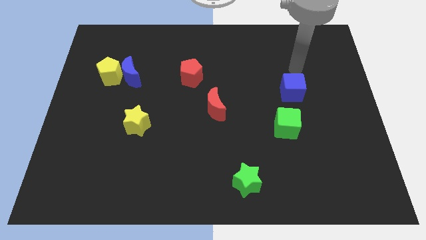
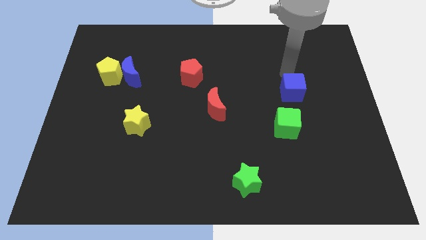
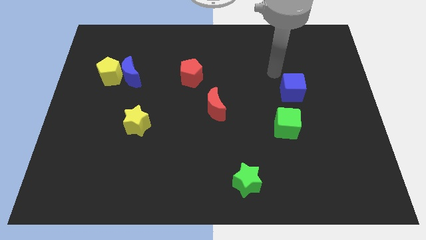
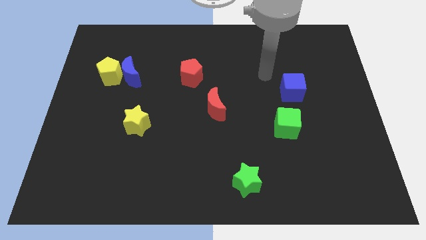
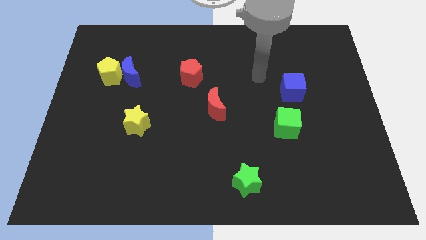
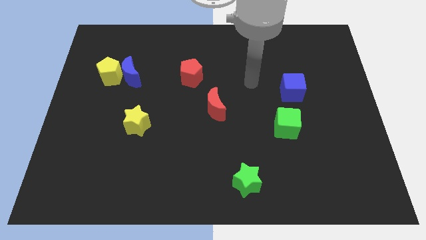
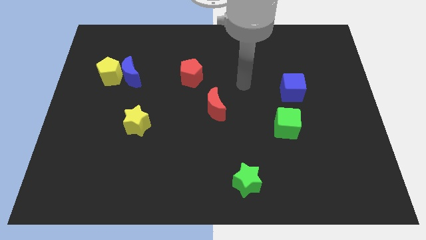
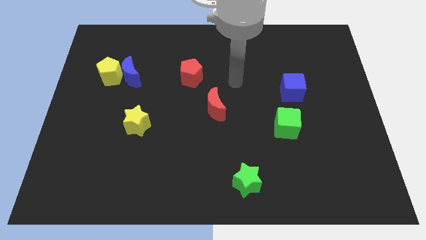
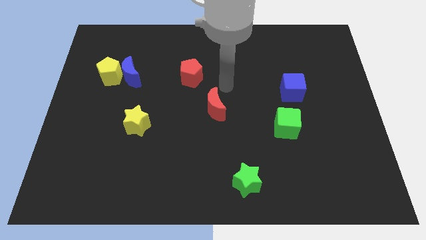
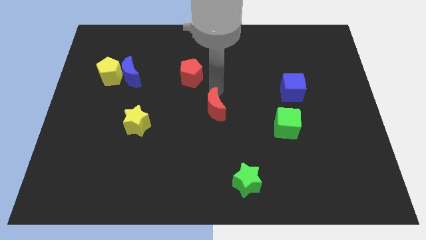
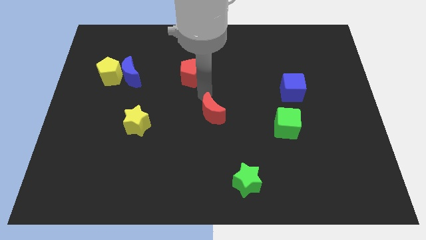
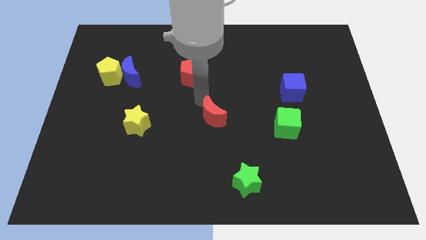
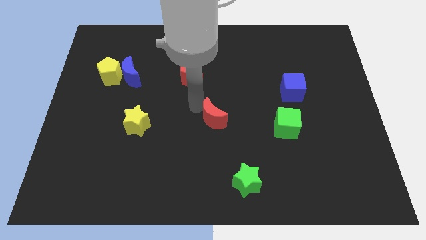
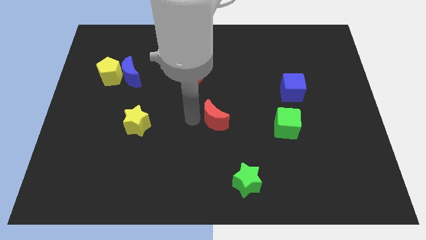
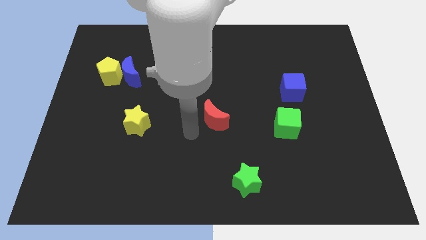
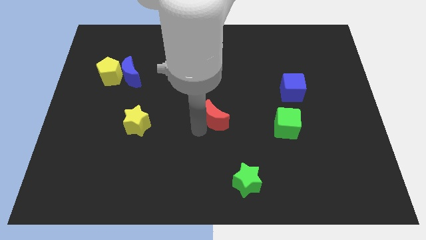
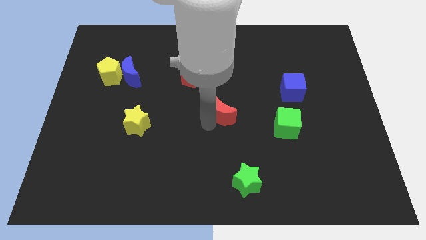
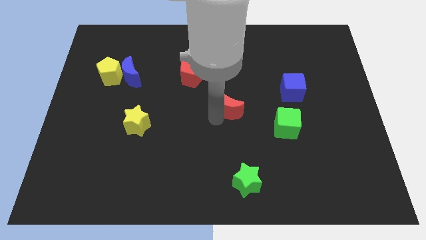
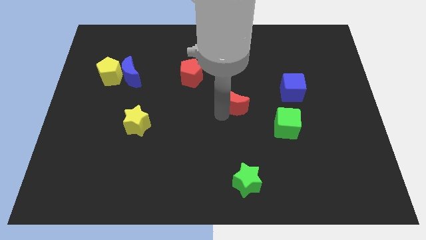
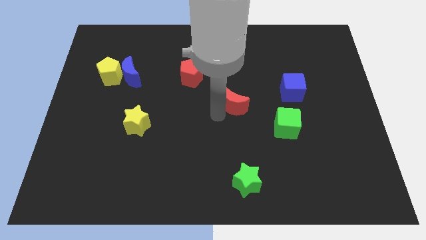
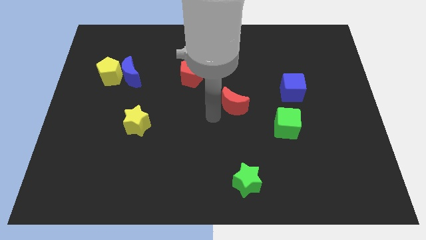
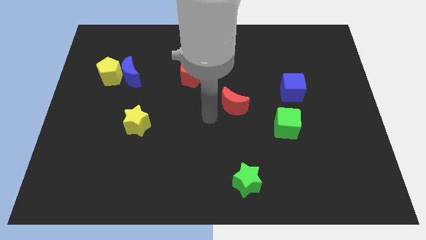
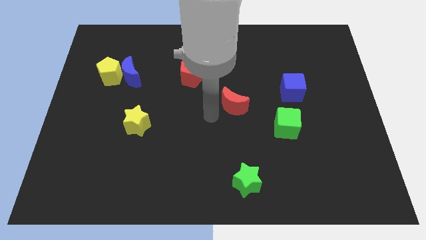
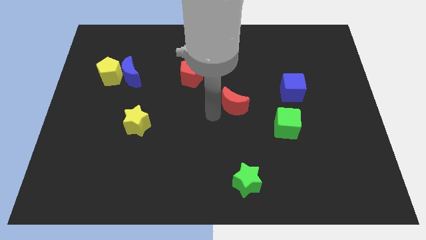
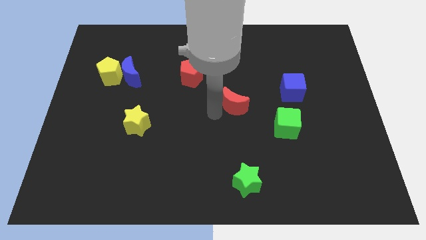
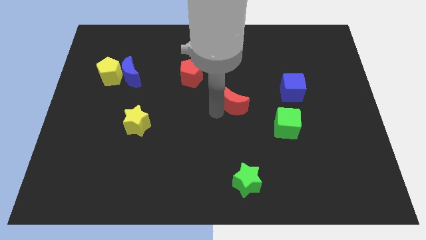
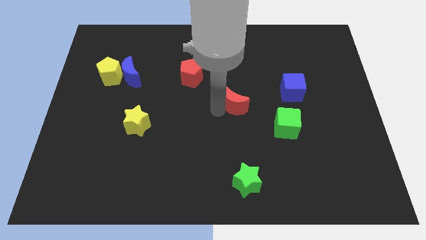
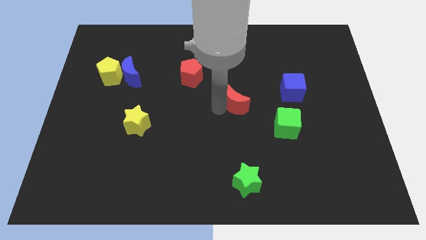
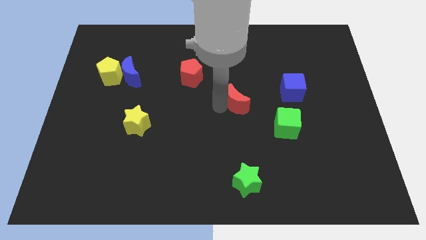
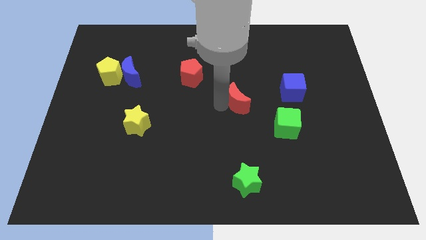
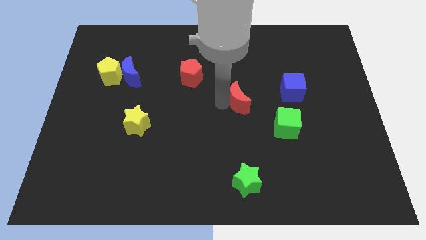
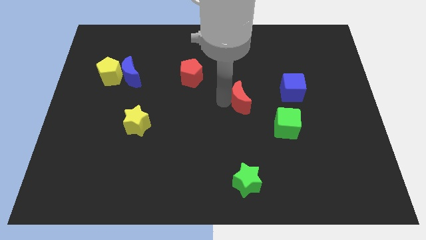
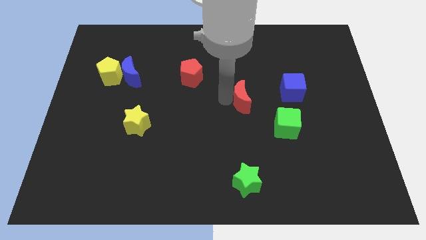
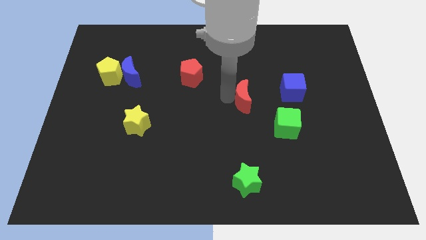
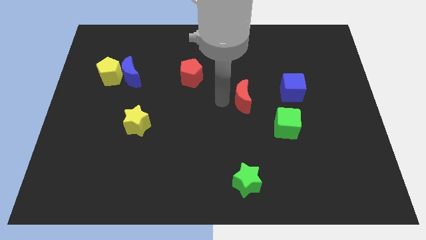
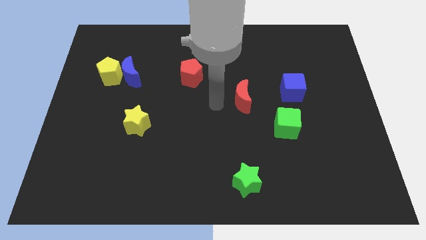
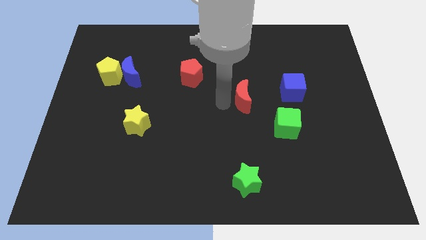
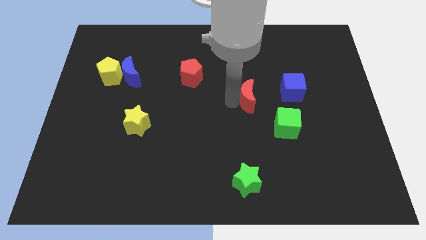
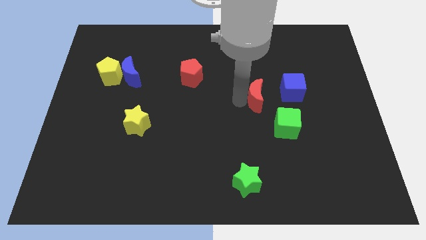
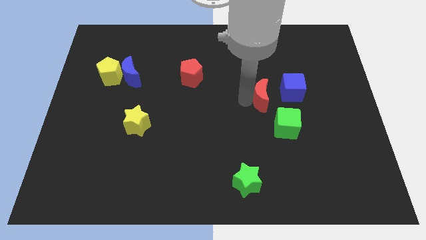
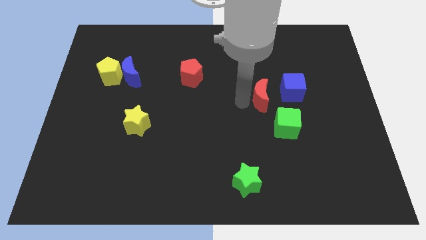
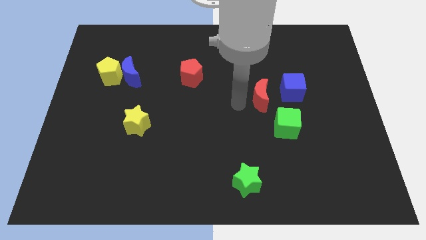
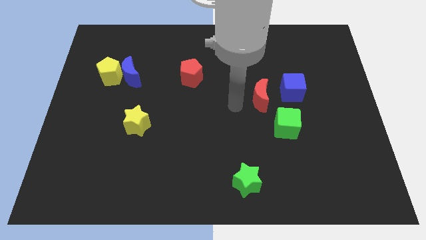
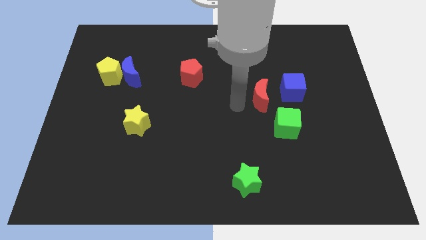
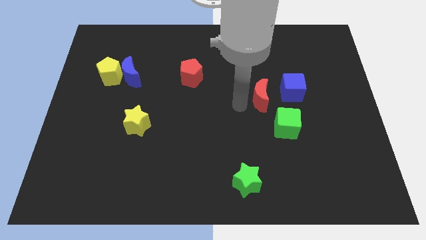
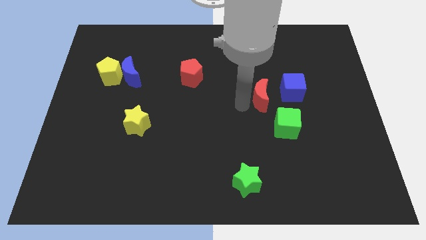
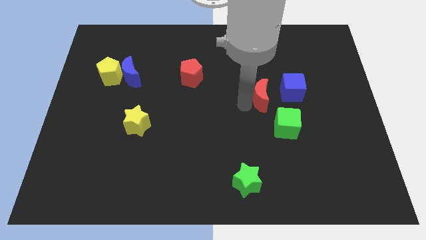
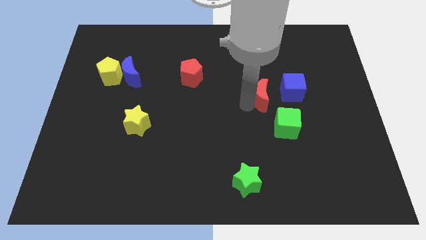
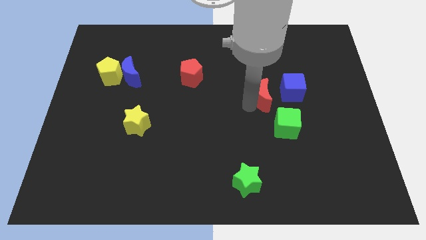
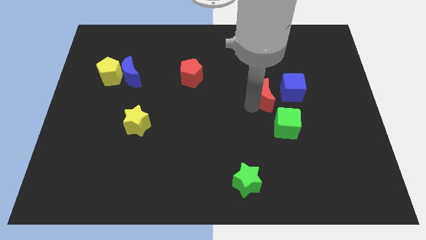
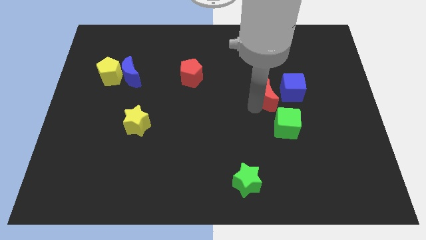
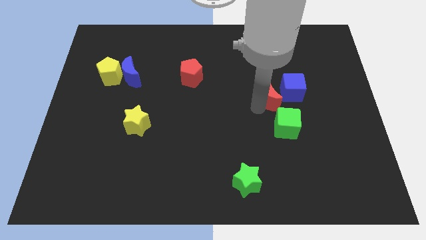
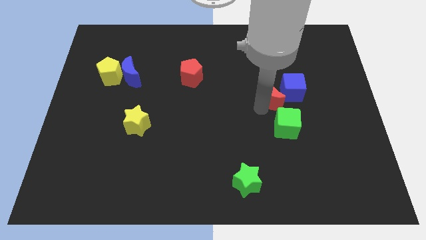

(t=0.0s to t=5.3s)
slide the red moon towards the blue cube

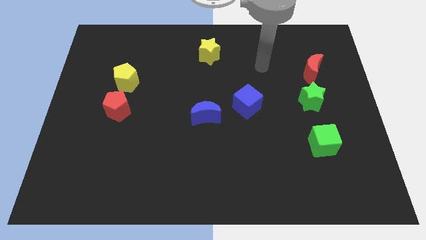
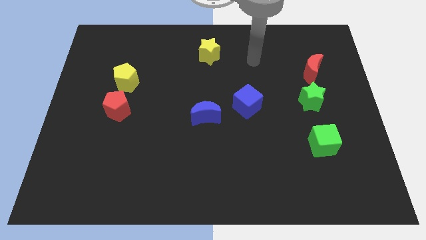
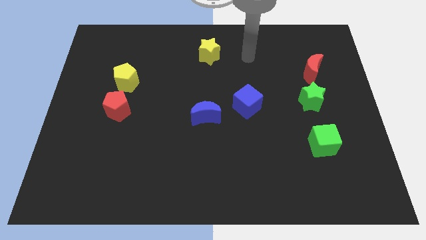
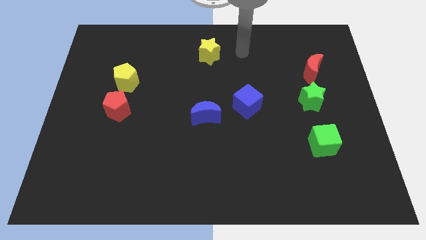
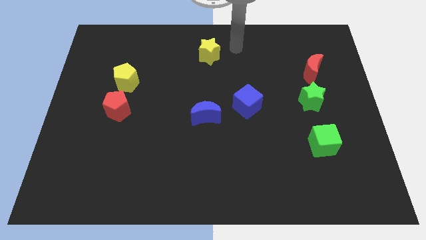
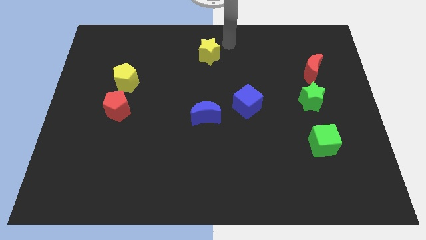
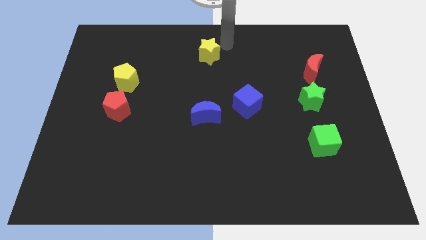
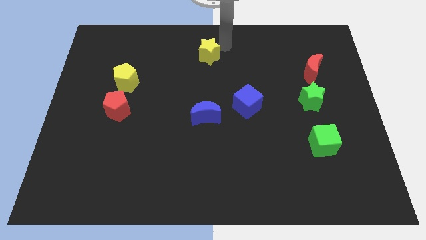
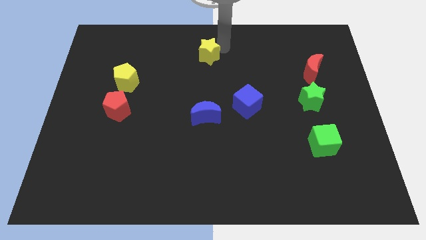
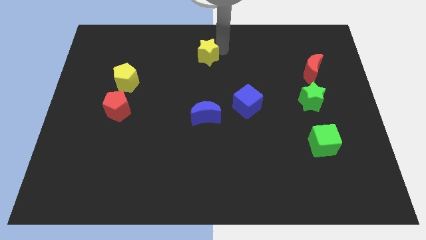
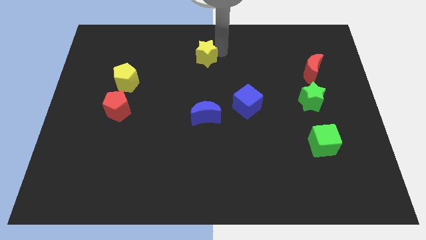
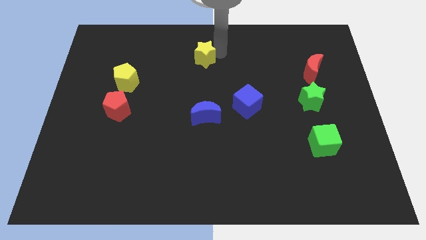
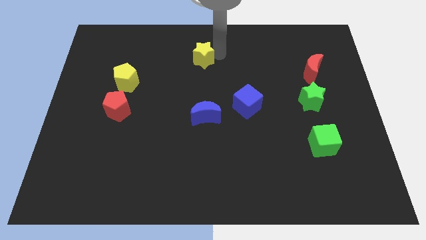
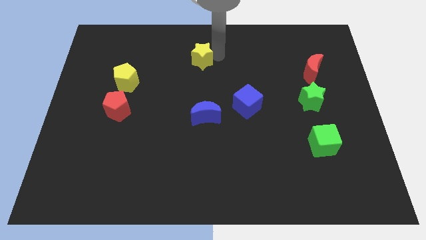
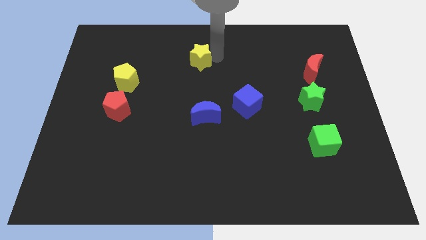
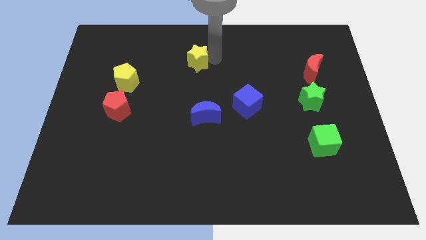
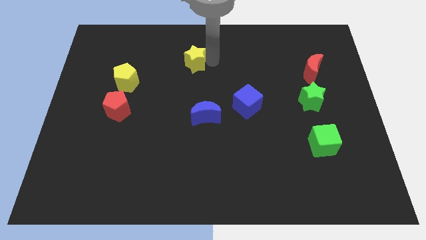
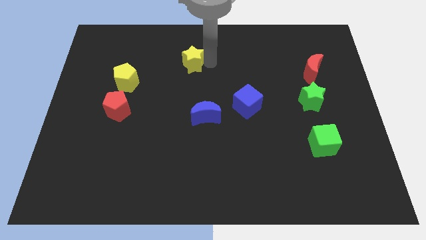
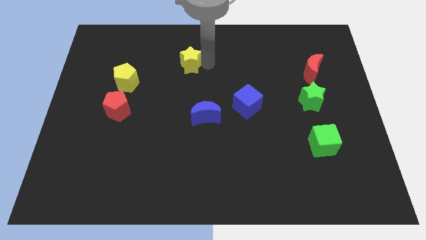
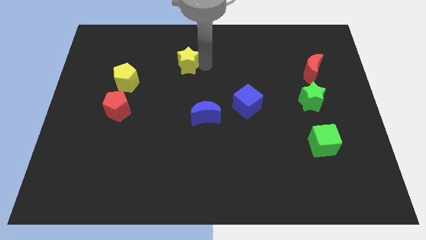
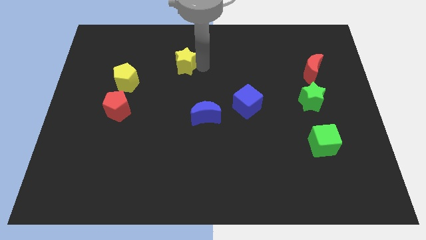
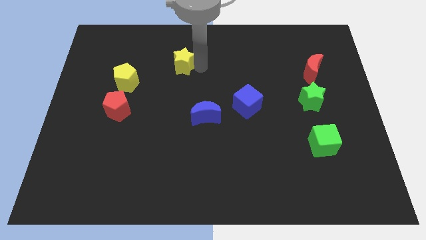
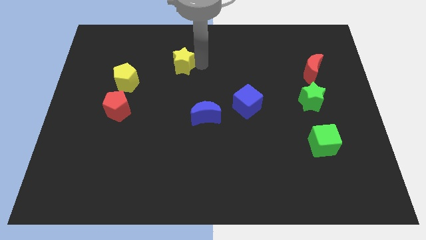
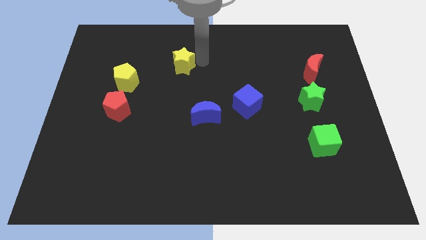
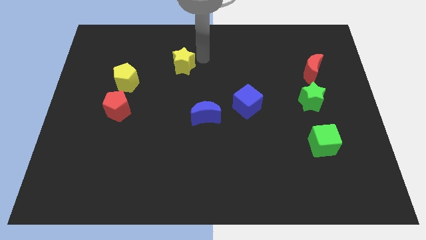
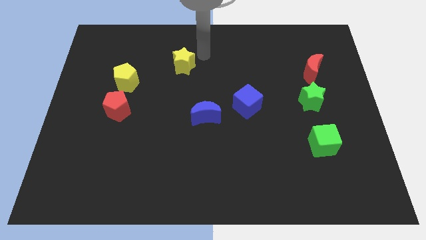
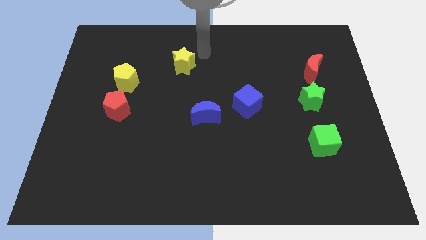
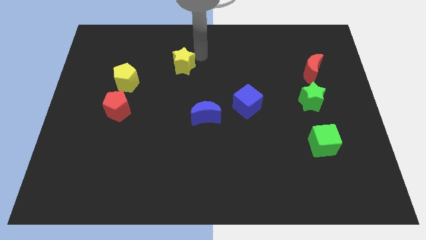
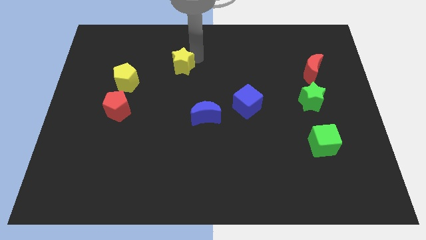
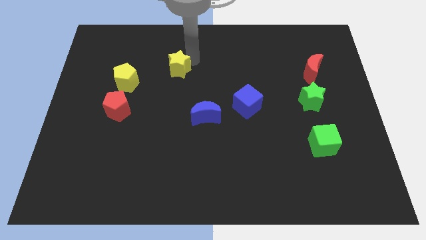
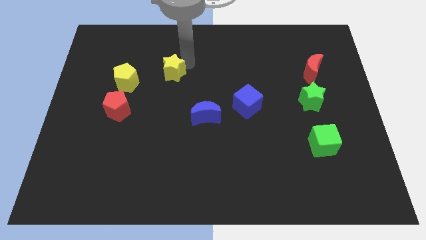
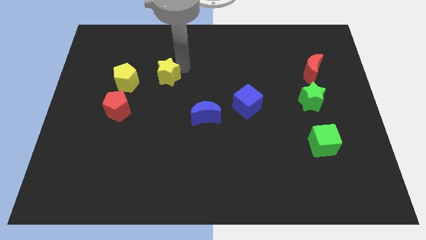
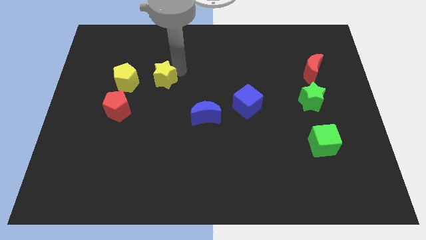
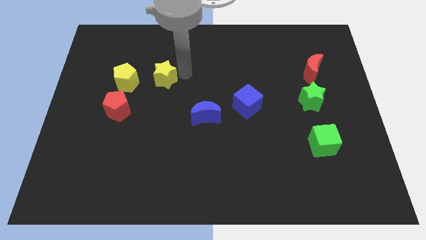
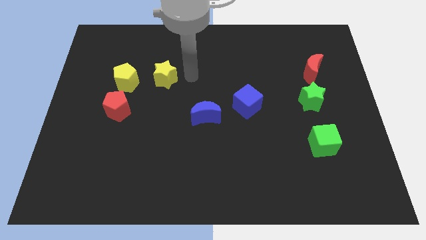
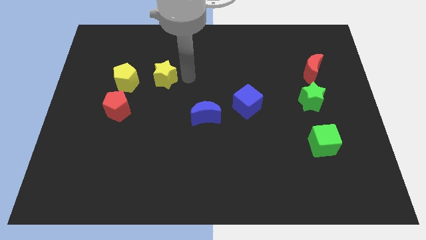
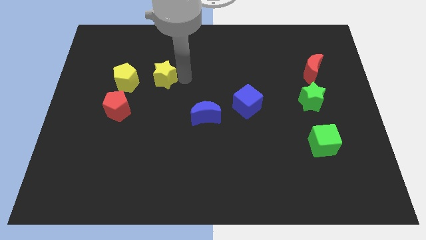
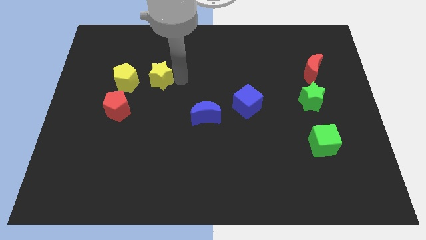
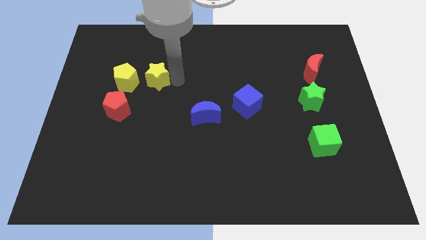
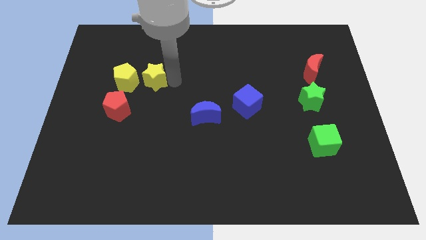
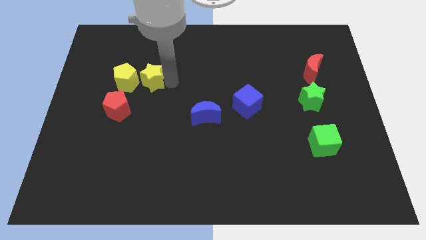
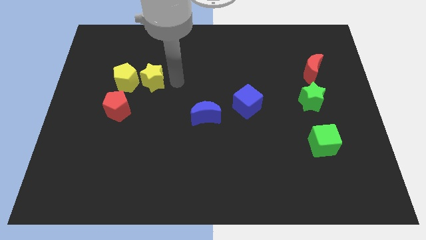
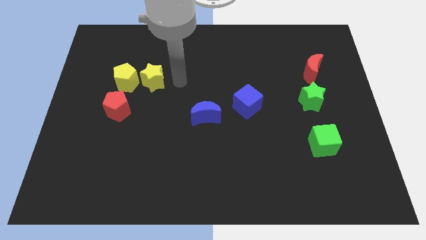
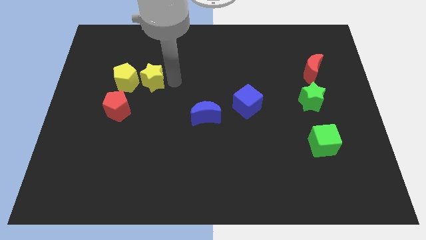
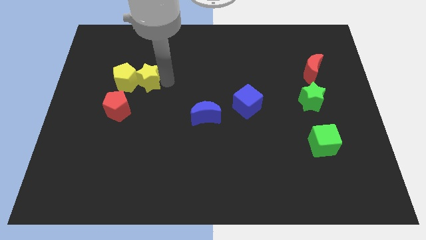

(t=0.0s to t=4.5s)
put the yellow star to the yellow pentagon
